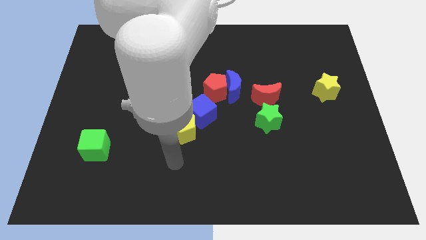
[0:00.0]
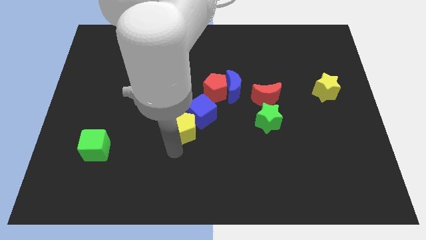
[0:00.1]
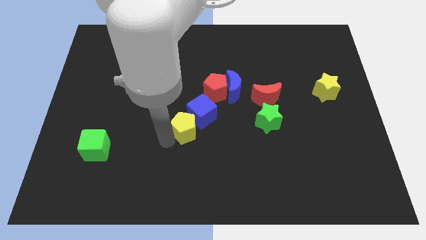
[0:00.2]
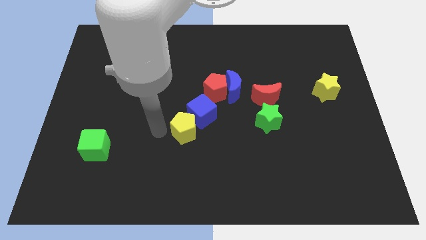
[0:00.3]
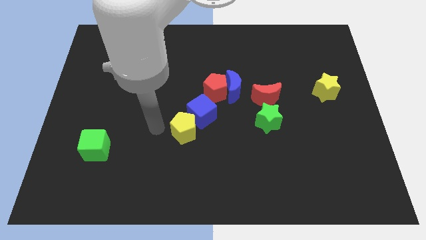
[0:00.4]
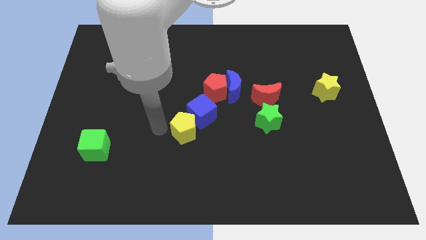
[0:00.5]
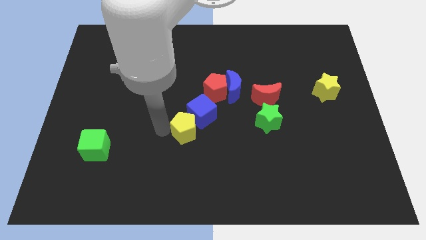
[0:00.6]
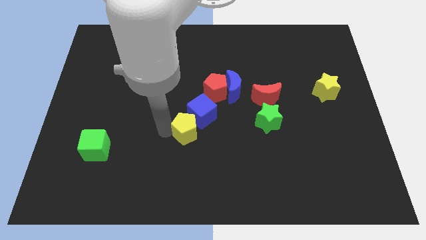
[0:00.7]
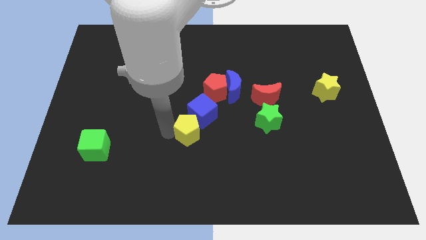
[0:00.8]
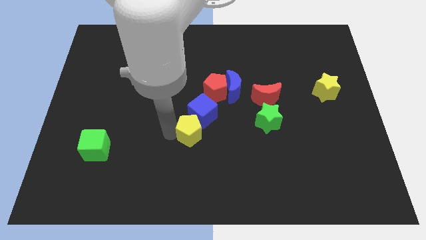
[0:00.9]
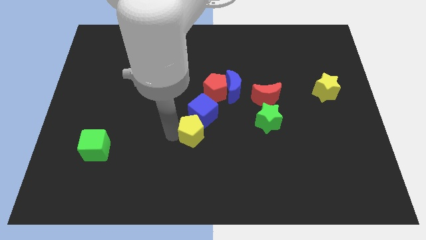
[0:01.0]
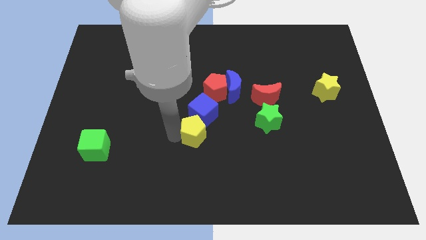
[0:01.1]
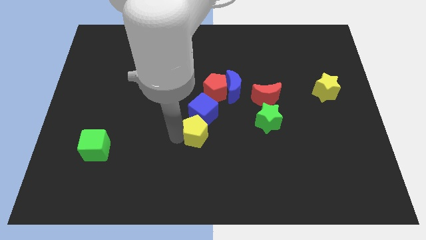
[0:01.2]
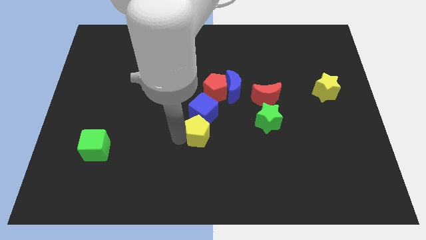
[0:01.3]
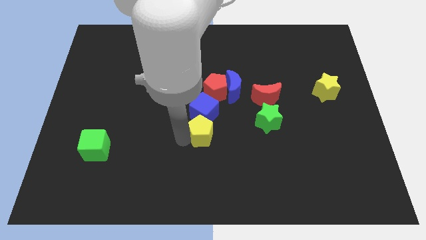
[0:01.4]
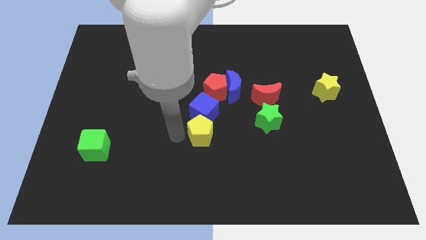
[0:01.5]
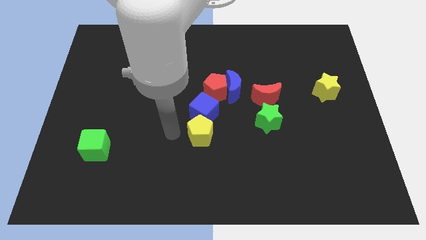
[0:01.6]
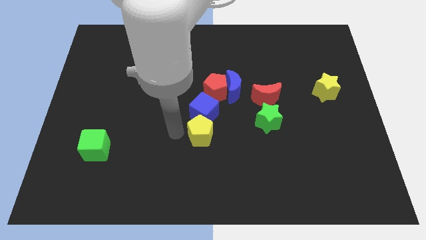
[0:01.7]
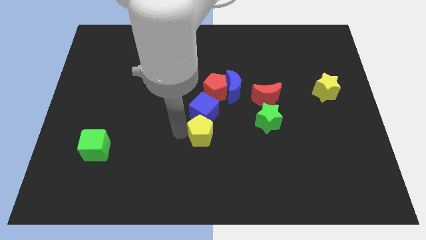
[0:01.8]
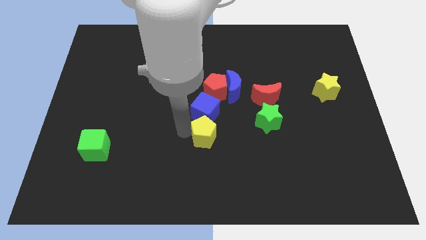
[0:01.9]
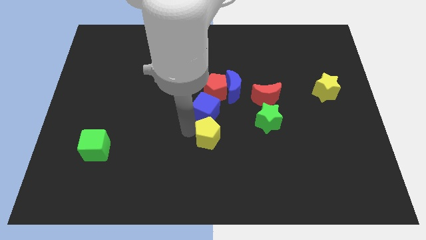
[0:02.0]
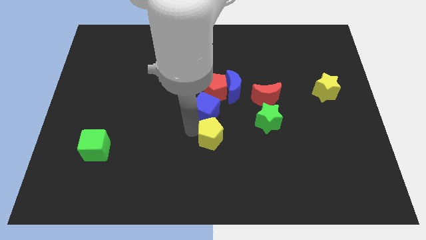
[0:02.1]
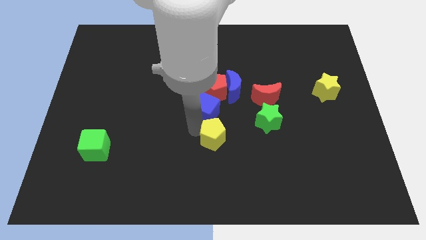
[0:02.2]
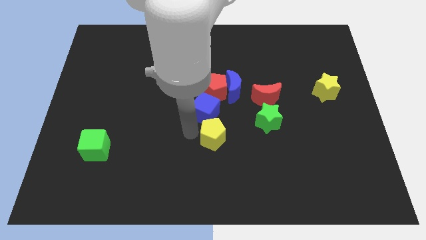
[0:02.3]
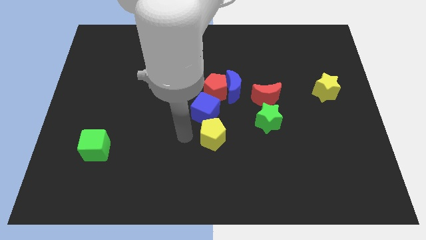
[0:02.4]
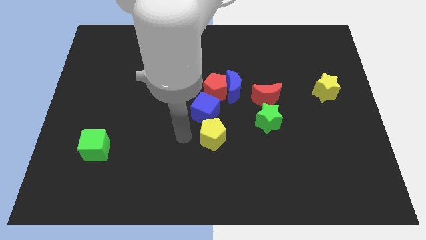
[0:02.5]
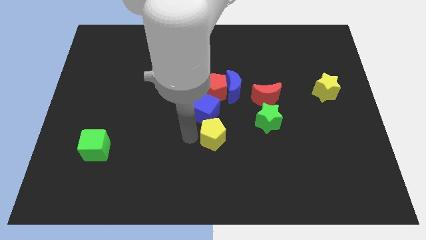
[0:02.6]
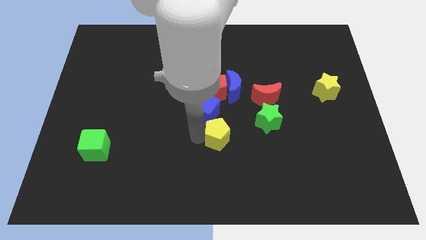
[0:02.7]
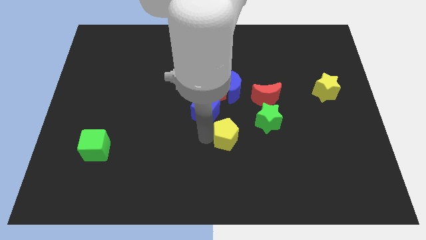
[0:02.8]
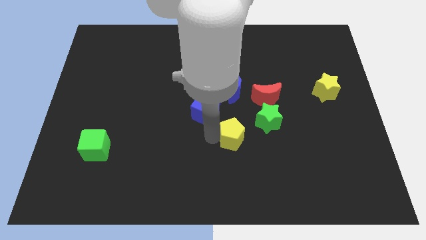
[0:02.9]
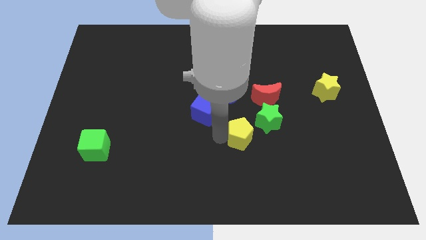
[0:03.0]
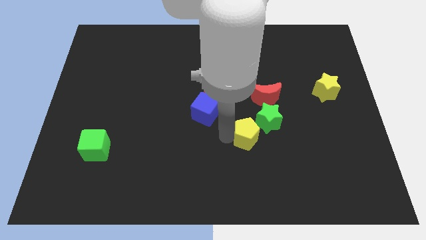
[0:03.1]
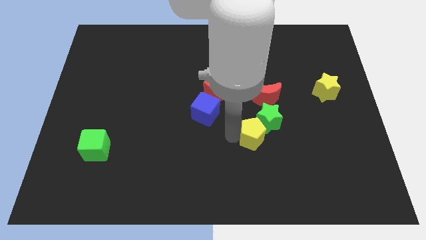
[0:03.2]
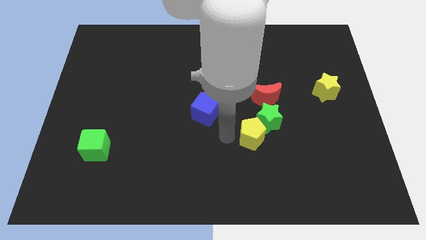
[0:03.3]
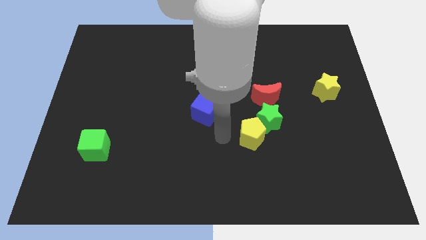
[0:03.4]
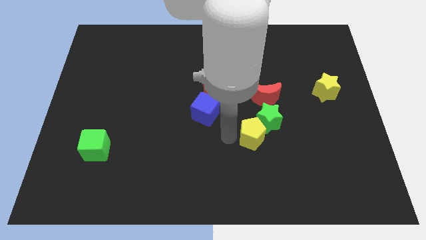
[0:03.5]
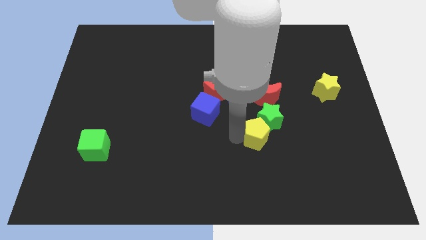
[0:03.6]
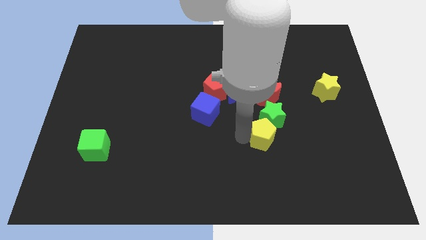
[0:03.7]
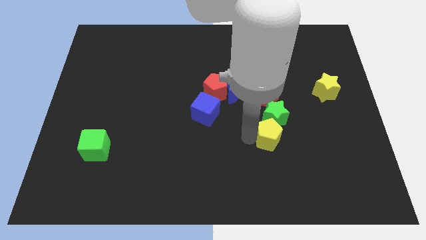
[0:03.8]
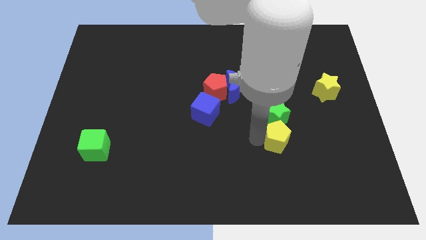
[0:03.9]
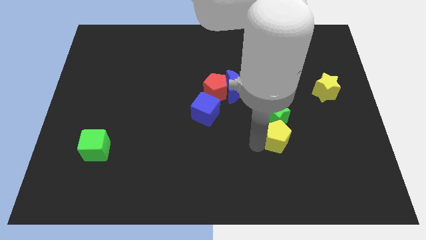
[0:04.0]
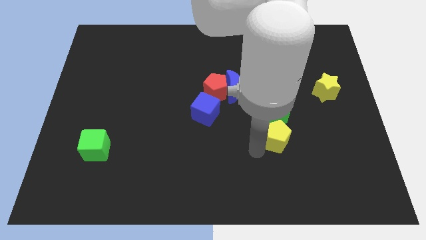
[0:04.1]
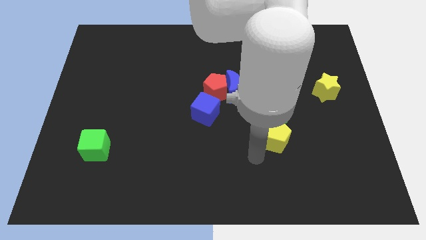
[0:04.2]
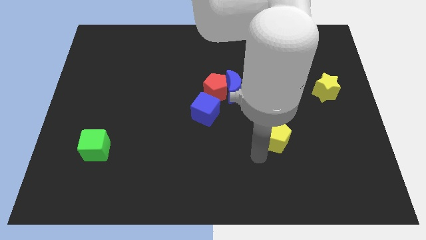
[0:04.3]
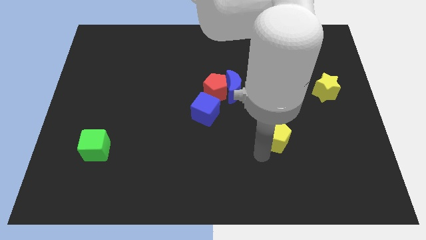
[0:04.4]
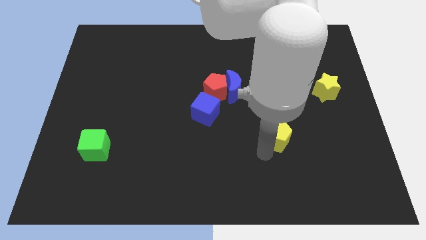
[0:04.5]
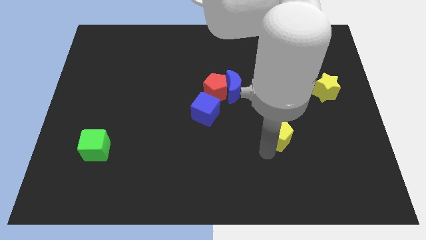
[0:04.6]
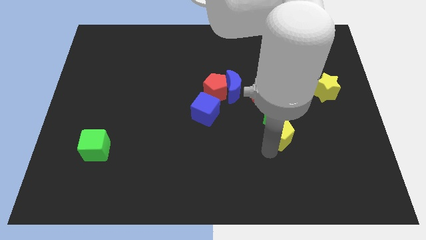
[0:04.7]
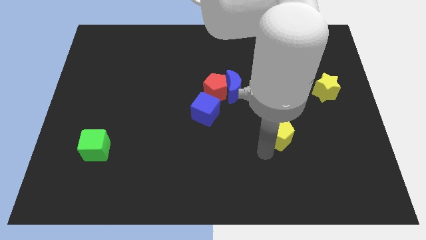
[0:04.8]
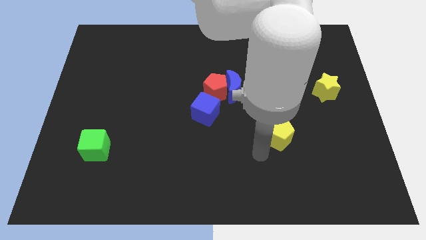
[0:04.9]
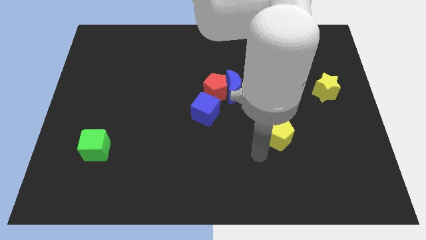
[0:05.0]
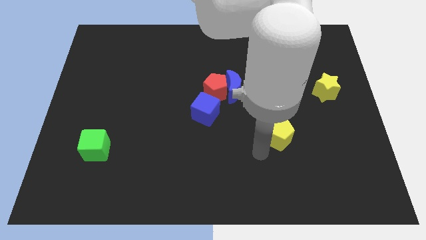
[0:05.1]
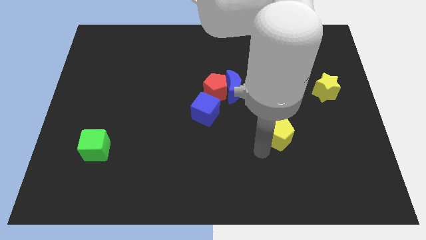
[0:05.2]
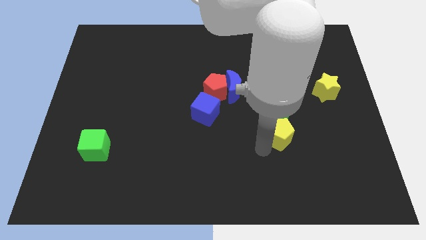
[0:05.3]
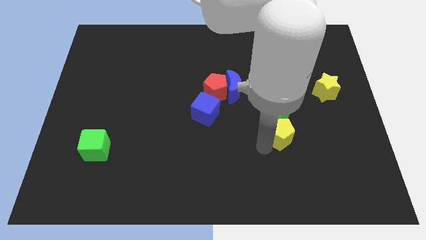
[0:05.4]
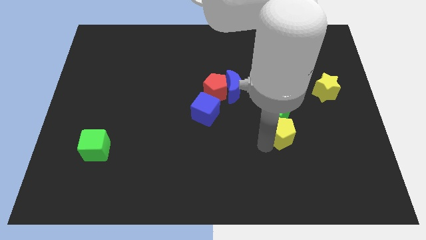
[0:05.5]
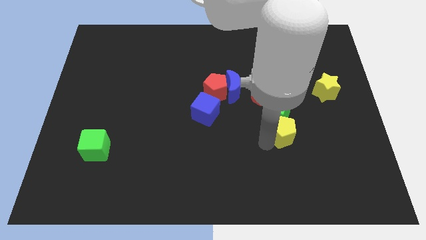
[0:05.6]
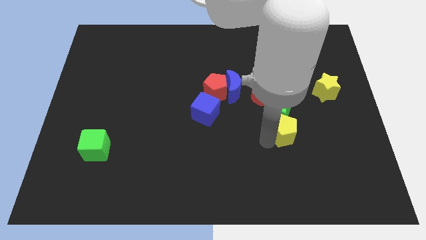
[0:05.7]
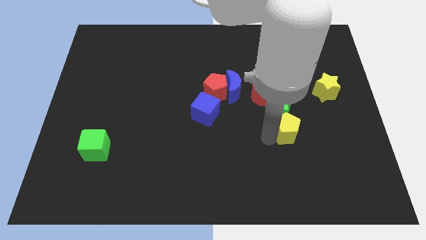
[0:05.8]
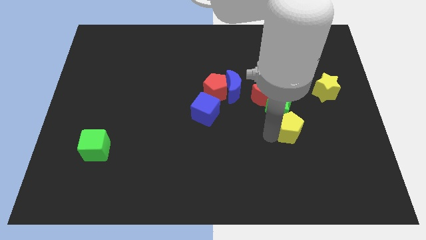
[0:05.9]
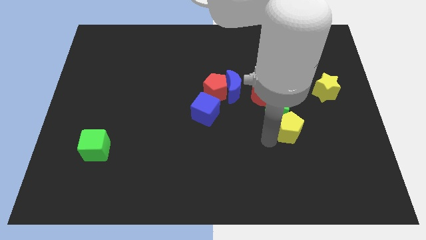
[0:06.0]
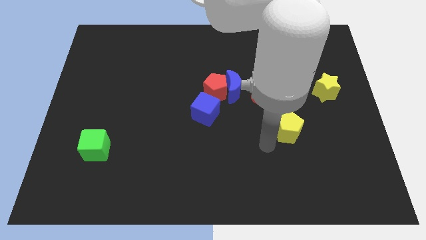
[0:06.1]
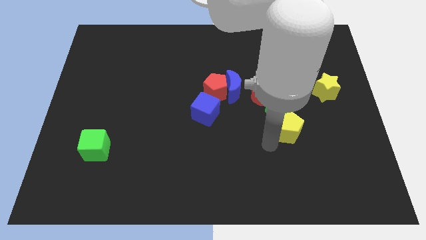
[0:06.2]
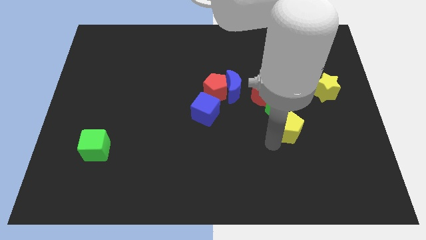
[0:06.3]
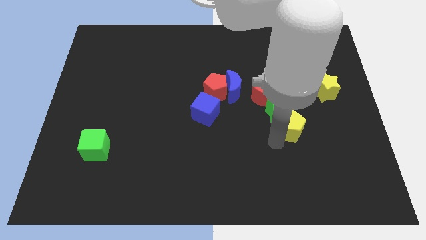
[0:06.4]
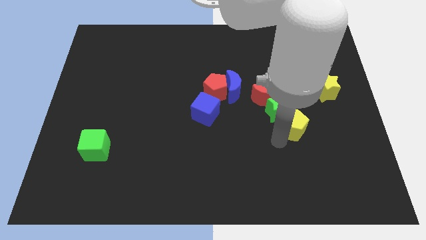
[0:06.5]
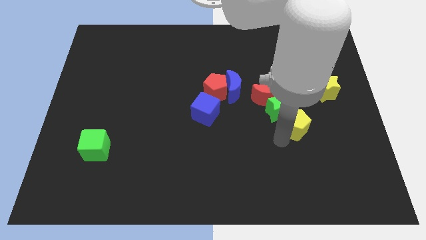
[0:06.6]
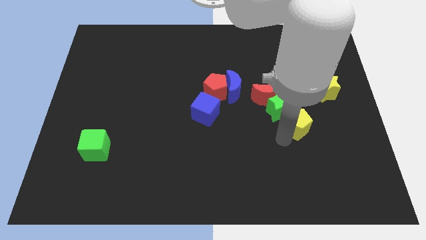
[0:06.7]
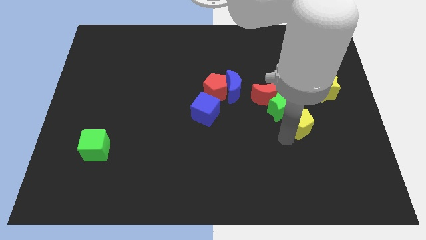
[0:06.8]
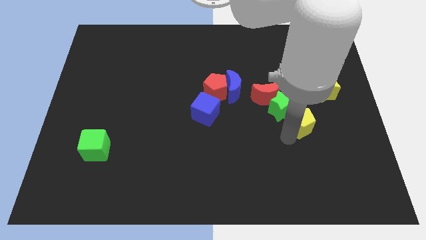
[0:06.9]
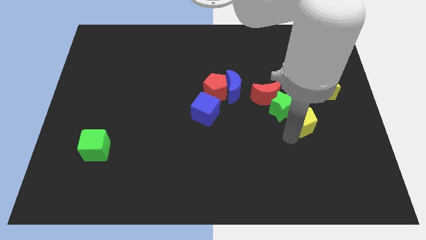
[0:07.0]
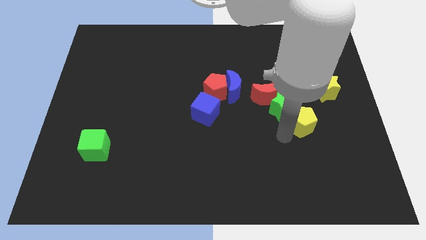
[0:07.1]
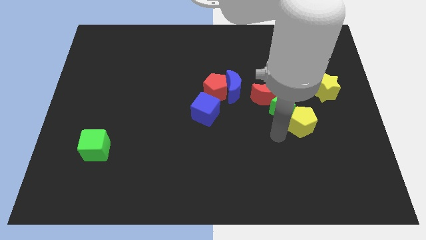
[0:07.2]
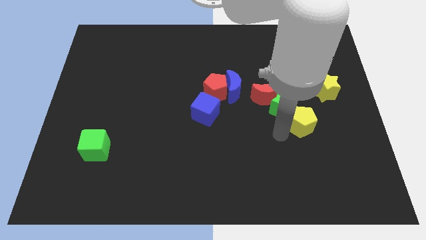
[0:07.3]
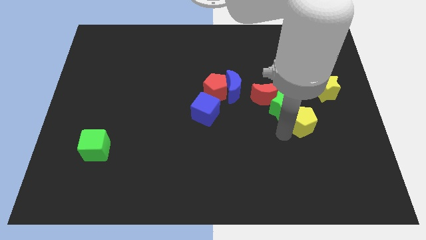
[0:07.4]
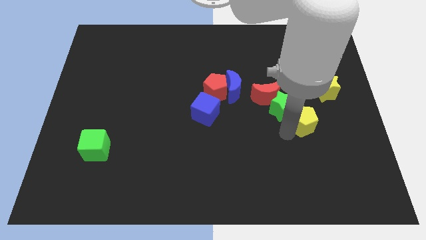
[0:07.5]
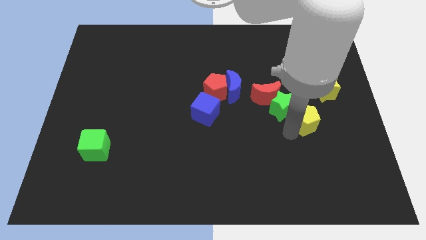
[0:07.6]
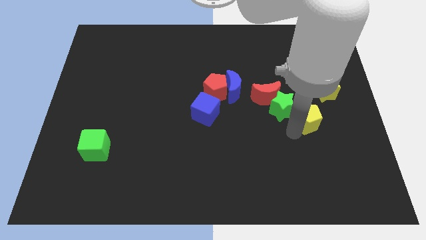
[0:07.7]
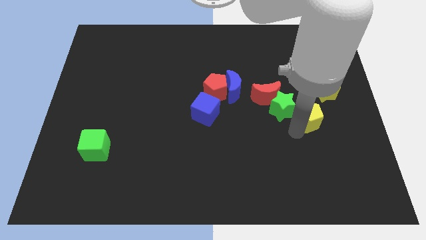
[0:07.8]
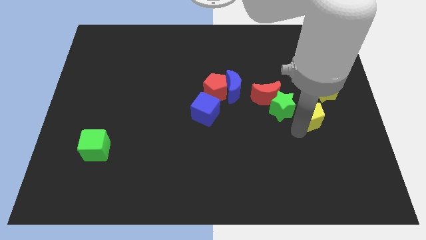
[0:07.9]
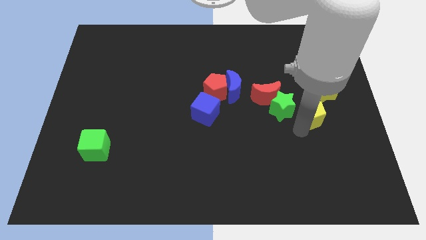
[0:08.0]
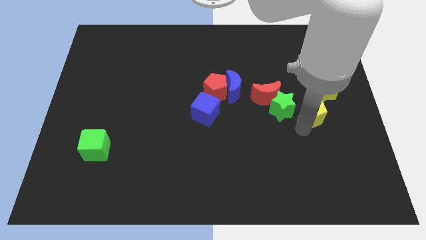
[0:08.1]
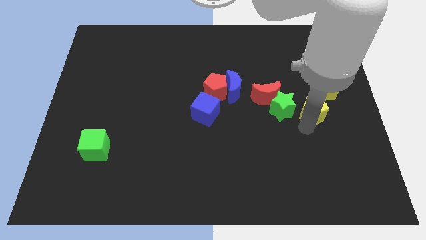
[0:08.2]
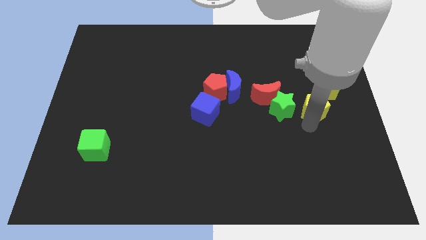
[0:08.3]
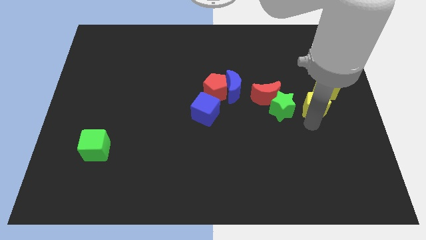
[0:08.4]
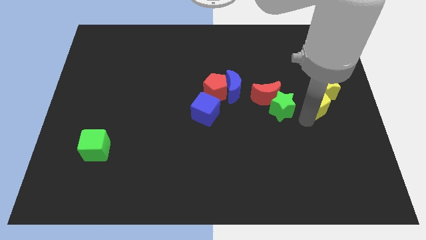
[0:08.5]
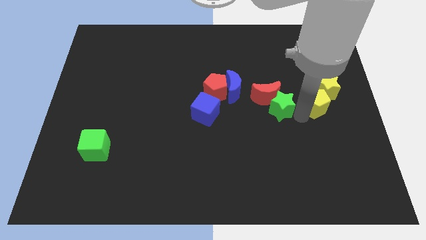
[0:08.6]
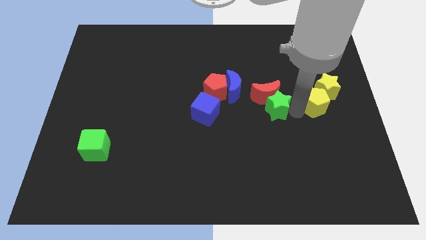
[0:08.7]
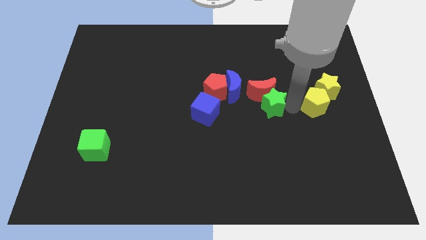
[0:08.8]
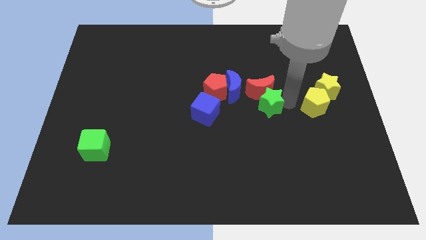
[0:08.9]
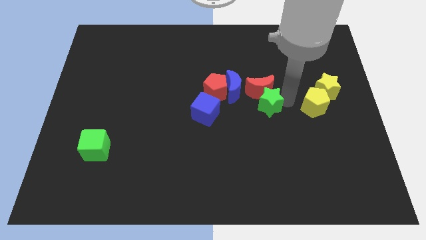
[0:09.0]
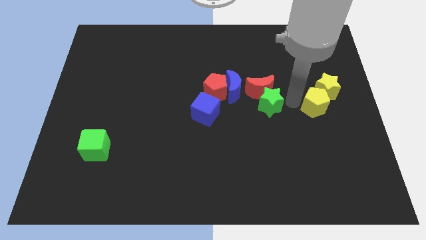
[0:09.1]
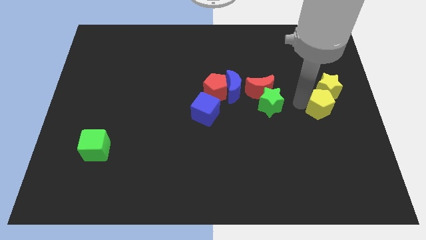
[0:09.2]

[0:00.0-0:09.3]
slide the yellow pentagon to the center right
